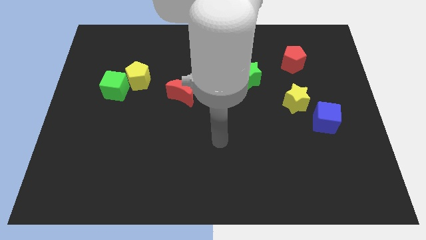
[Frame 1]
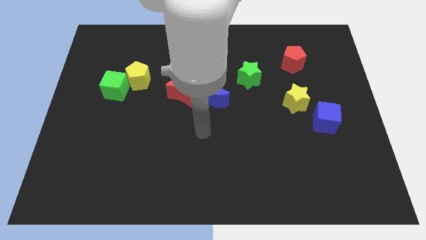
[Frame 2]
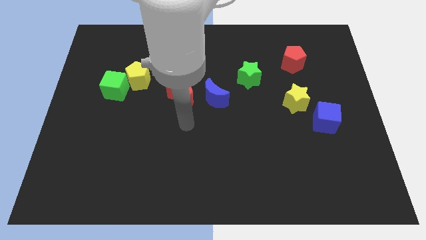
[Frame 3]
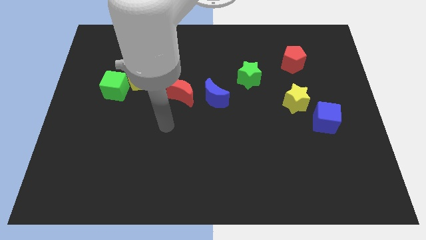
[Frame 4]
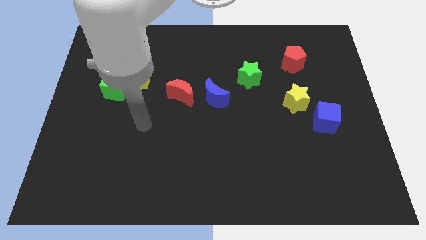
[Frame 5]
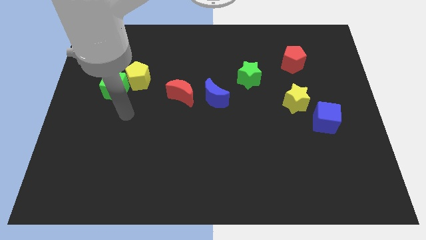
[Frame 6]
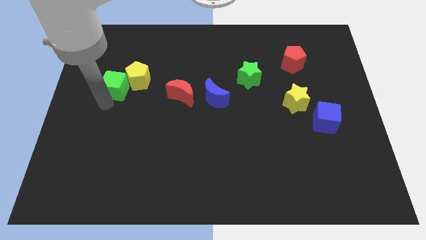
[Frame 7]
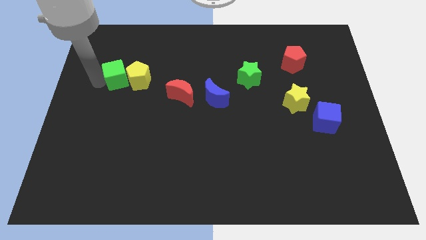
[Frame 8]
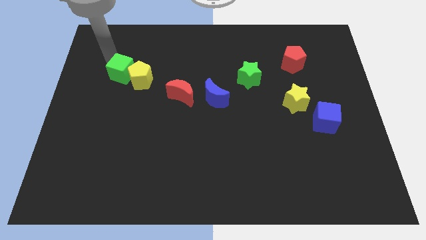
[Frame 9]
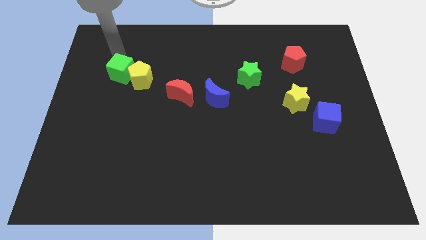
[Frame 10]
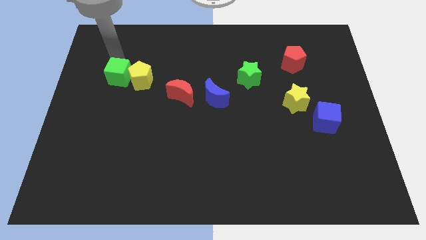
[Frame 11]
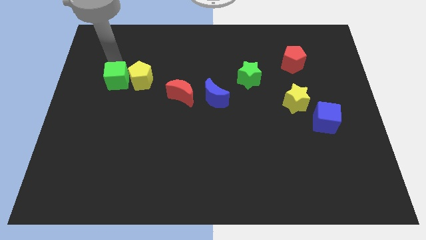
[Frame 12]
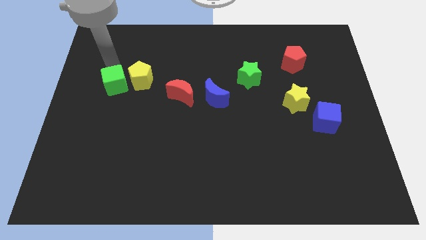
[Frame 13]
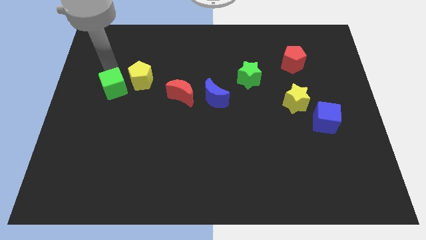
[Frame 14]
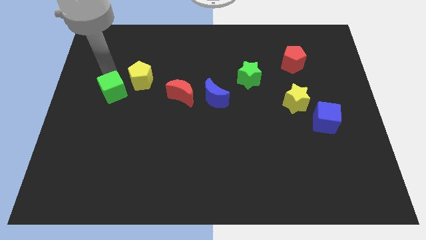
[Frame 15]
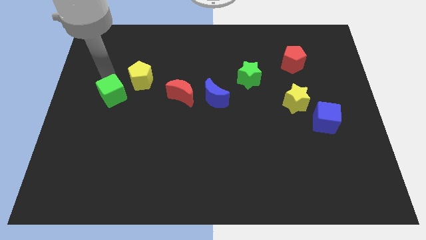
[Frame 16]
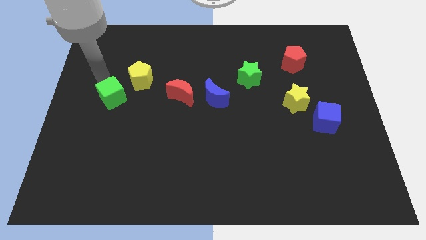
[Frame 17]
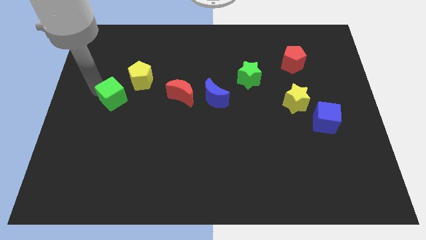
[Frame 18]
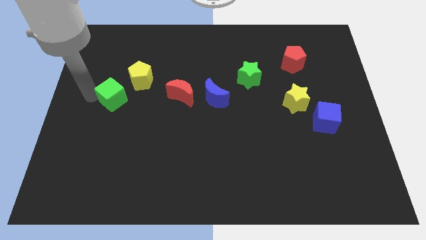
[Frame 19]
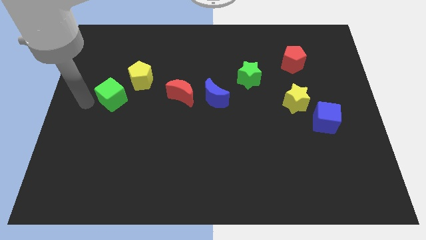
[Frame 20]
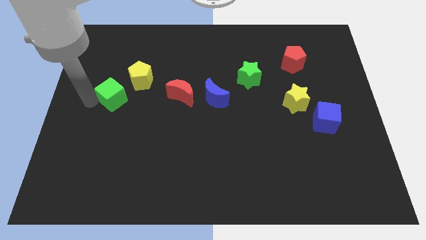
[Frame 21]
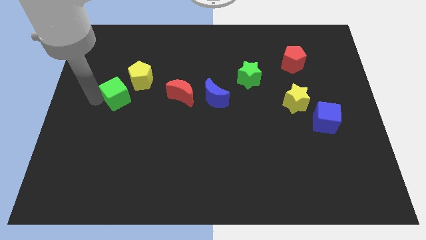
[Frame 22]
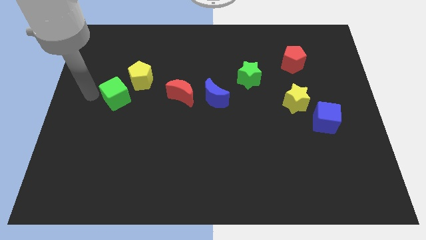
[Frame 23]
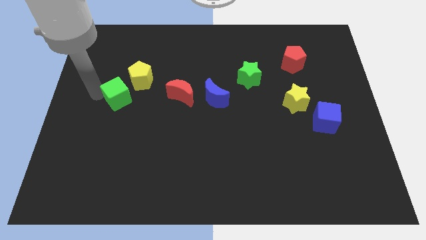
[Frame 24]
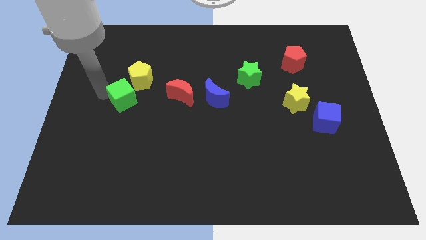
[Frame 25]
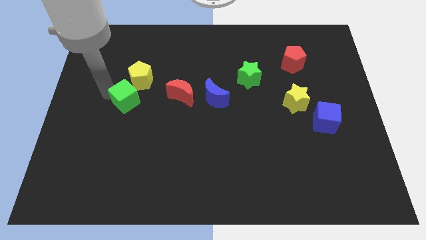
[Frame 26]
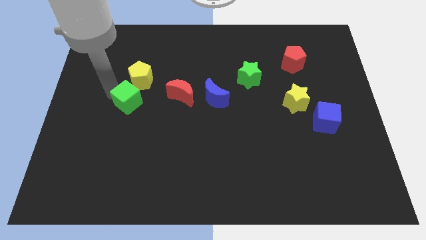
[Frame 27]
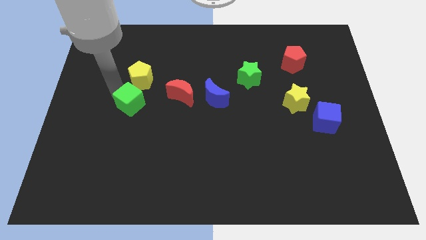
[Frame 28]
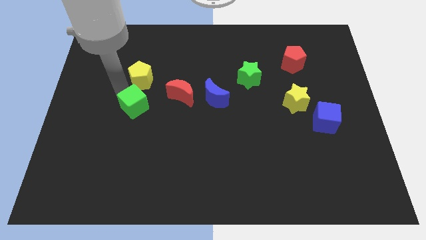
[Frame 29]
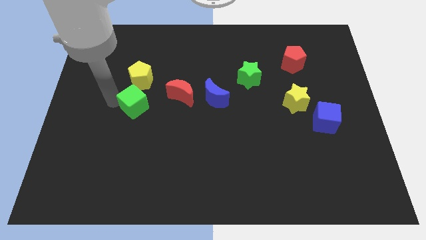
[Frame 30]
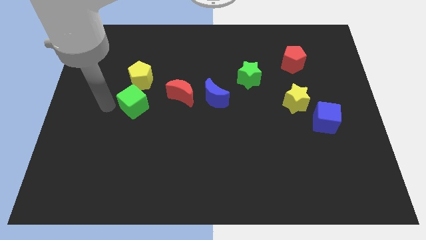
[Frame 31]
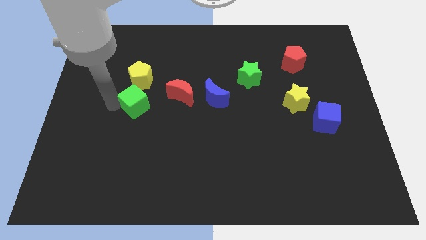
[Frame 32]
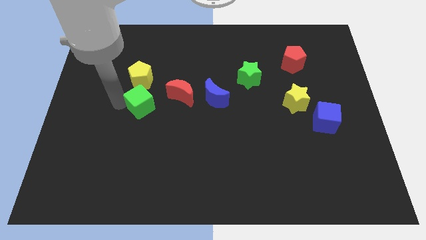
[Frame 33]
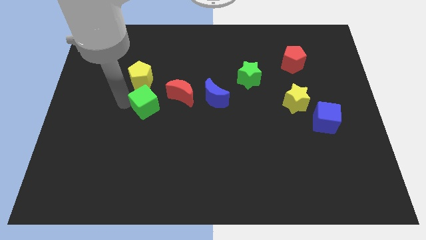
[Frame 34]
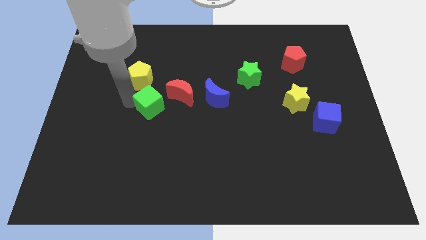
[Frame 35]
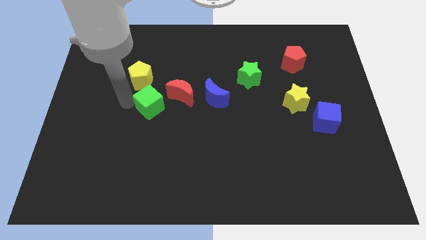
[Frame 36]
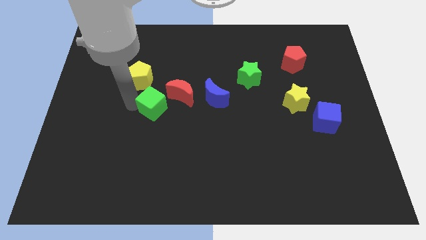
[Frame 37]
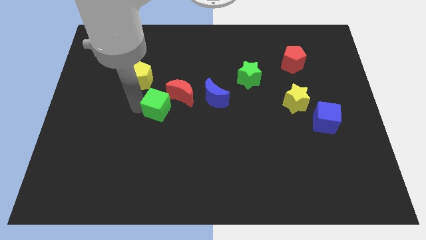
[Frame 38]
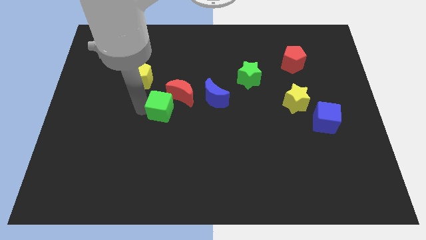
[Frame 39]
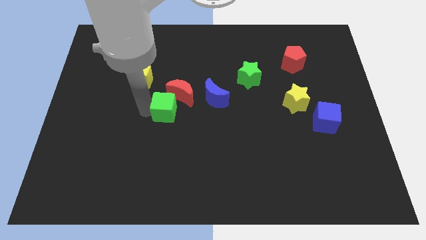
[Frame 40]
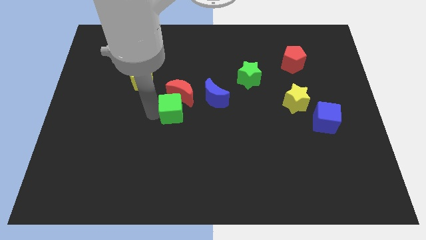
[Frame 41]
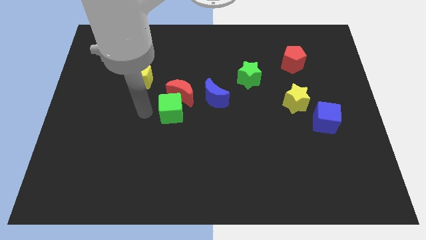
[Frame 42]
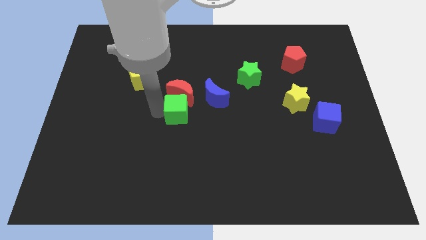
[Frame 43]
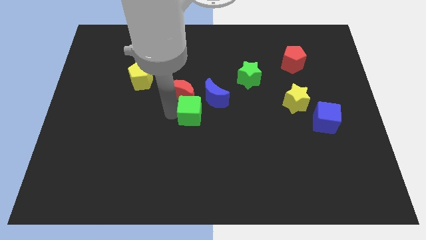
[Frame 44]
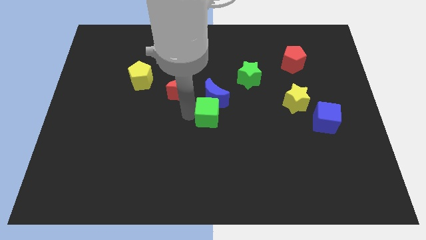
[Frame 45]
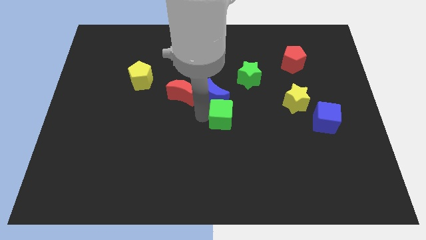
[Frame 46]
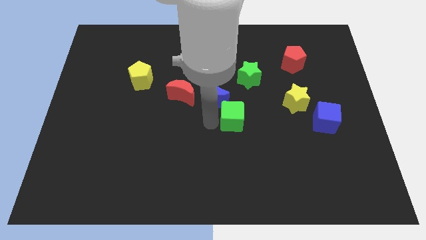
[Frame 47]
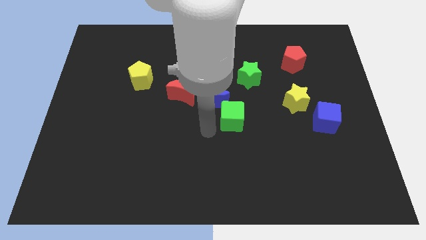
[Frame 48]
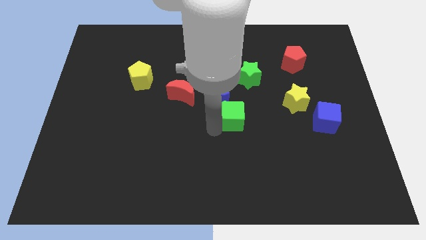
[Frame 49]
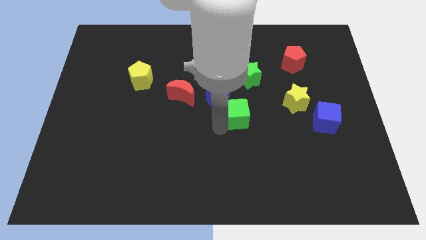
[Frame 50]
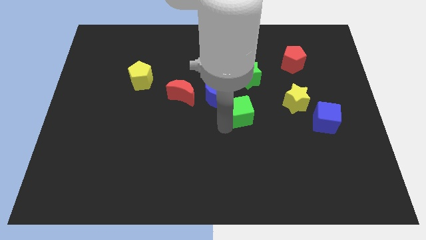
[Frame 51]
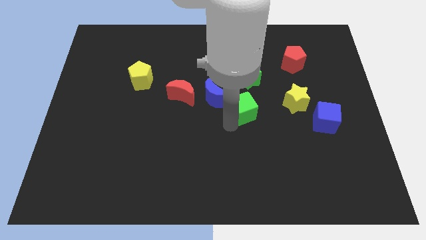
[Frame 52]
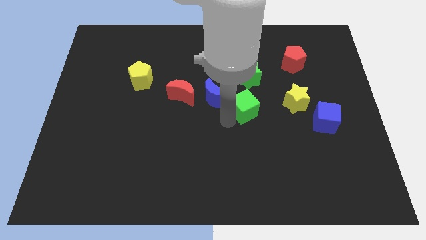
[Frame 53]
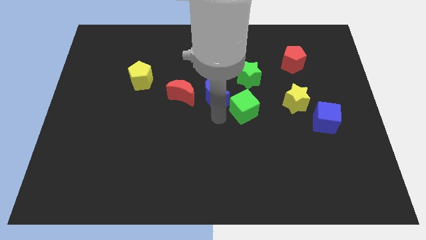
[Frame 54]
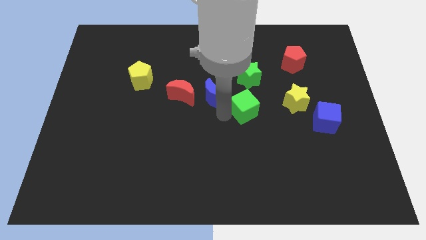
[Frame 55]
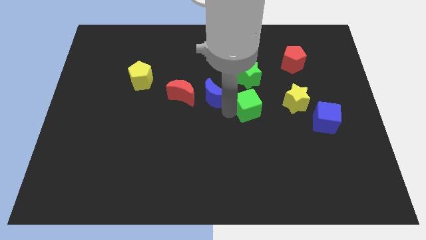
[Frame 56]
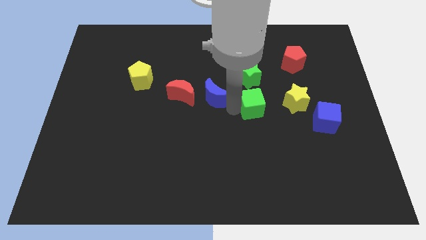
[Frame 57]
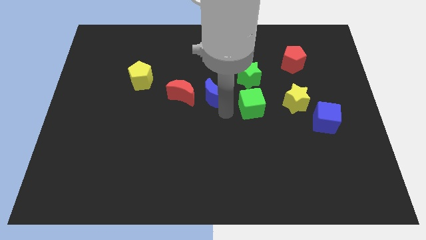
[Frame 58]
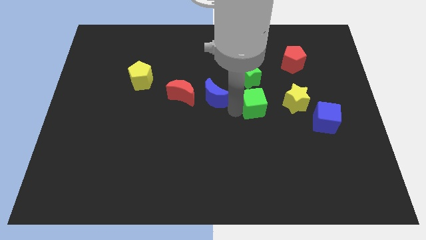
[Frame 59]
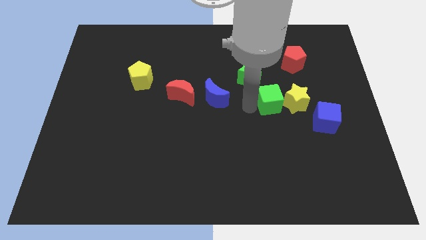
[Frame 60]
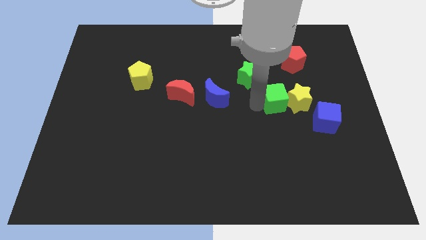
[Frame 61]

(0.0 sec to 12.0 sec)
slide the green cube towards the yellow star

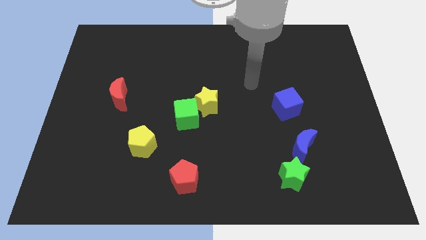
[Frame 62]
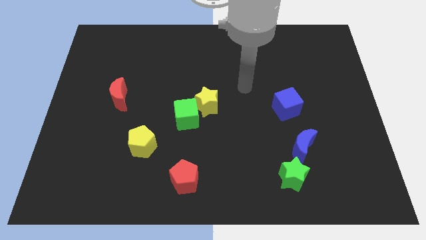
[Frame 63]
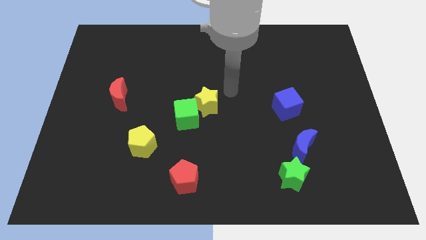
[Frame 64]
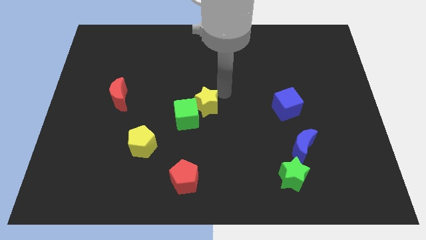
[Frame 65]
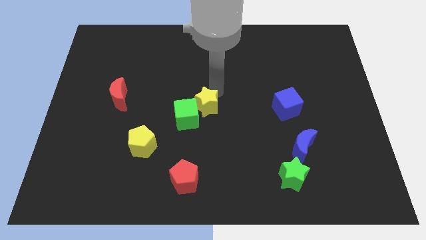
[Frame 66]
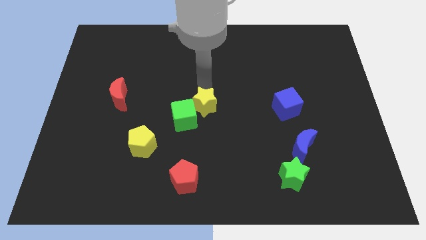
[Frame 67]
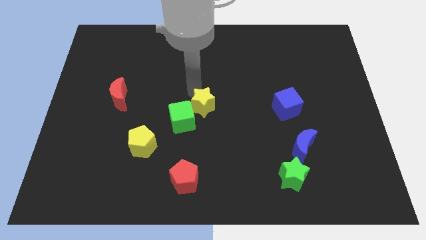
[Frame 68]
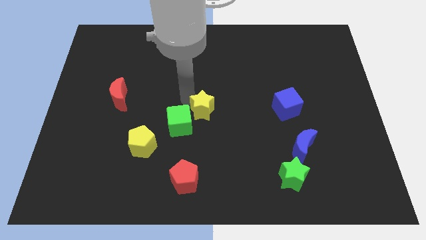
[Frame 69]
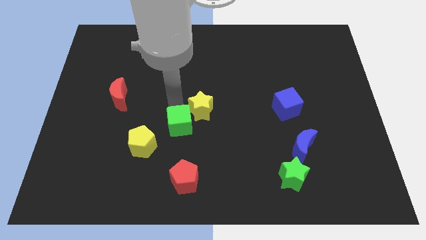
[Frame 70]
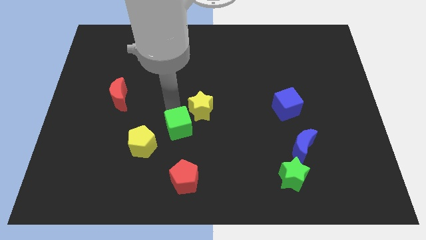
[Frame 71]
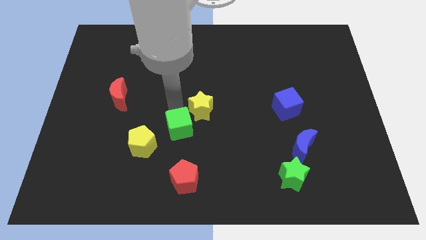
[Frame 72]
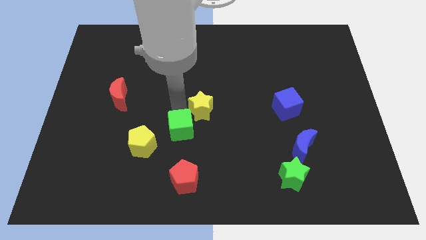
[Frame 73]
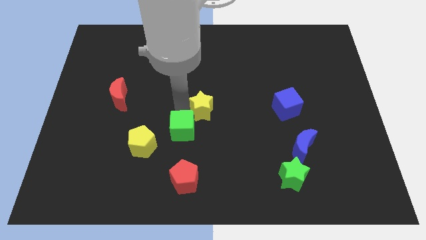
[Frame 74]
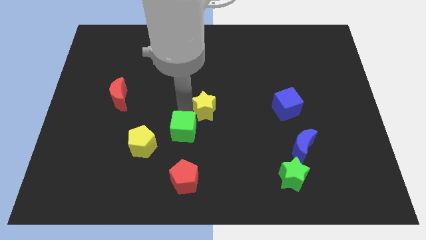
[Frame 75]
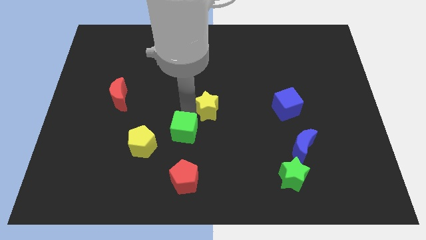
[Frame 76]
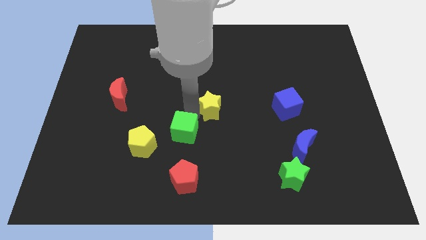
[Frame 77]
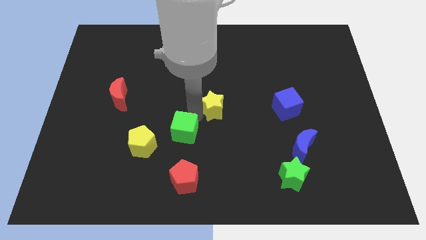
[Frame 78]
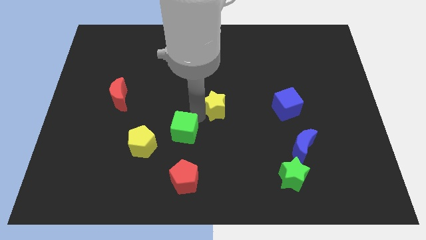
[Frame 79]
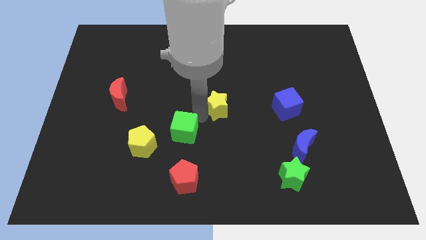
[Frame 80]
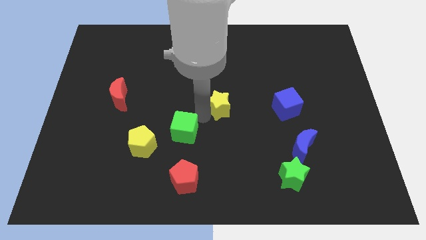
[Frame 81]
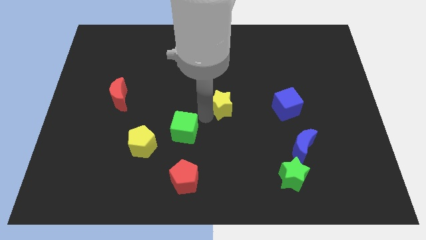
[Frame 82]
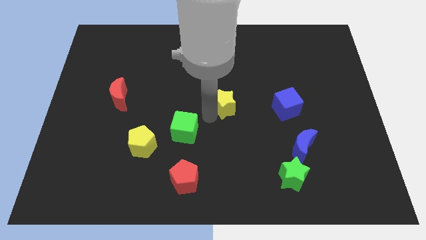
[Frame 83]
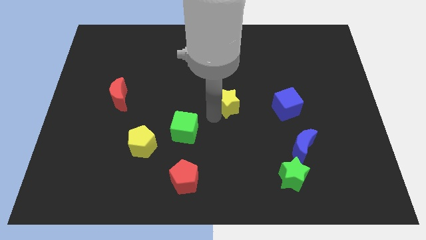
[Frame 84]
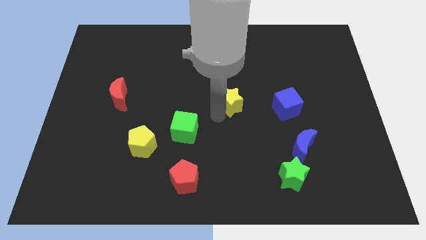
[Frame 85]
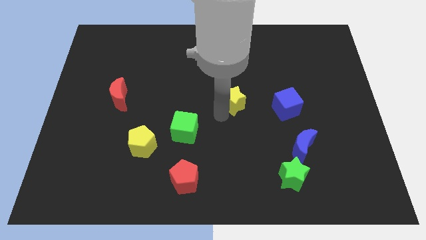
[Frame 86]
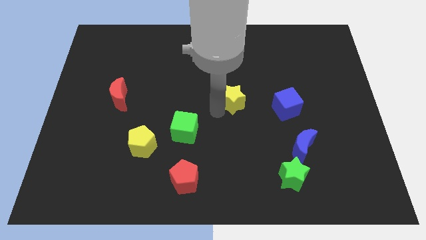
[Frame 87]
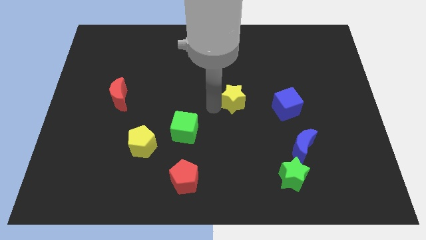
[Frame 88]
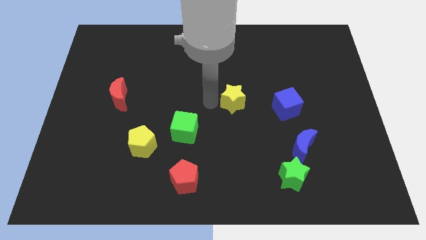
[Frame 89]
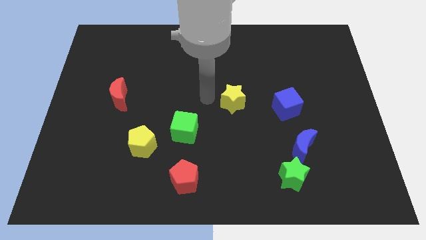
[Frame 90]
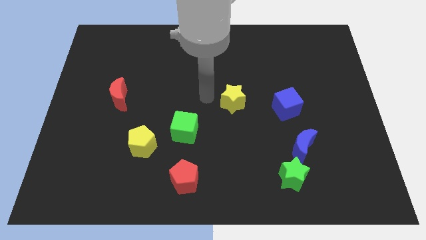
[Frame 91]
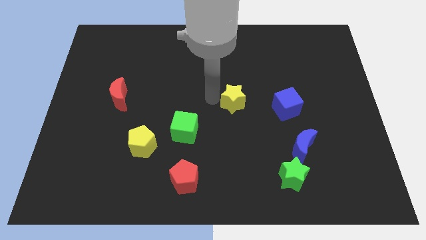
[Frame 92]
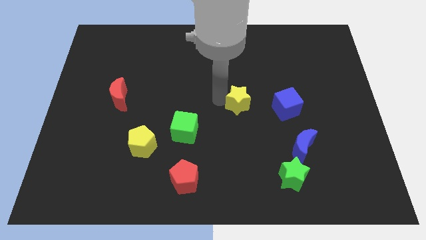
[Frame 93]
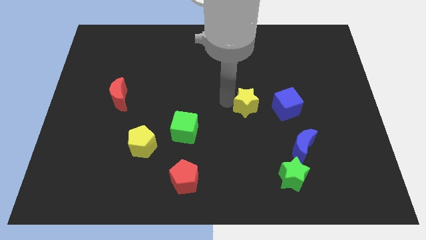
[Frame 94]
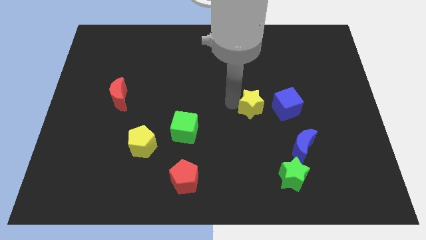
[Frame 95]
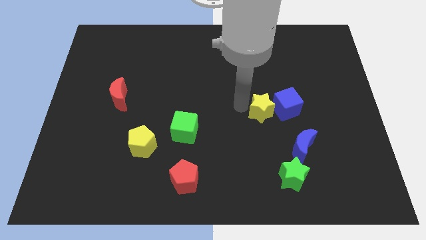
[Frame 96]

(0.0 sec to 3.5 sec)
push the yellow star close to the blue cube
